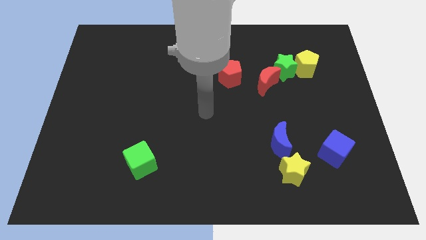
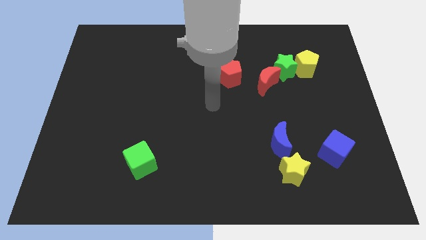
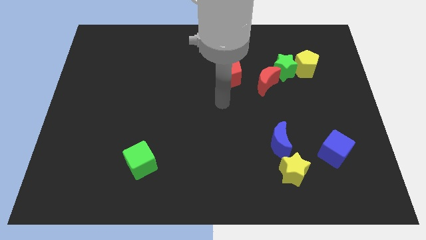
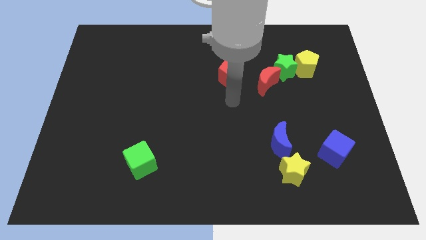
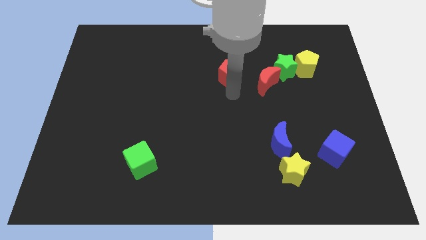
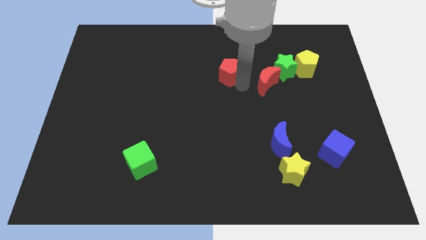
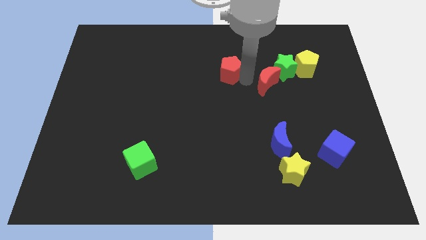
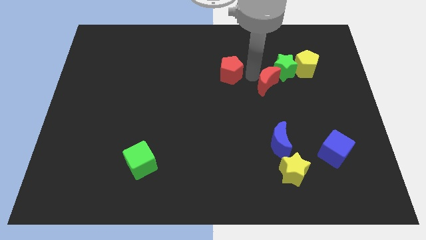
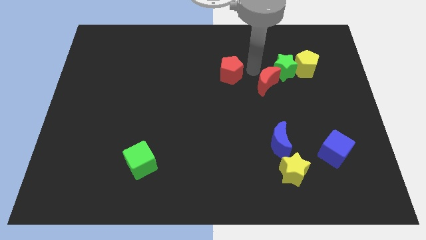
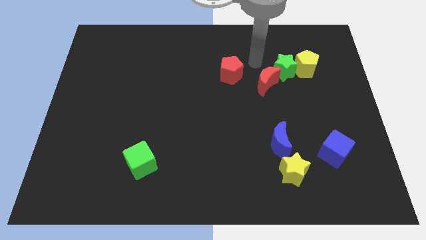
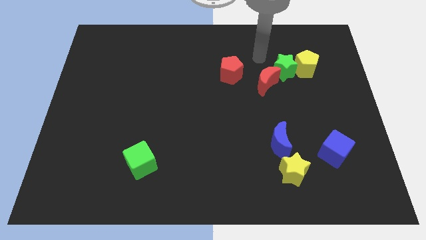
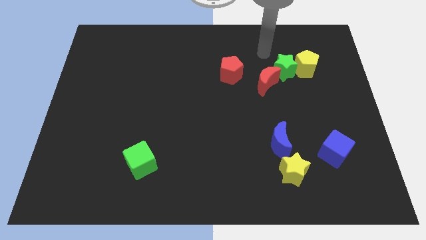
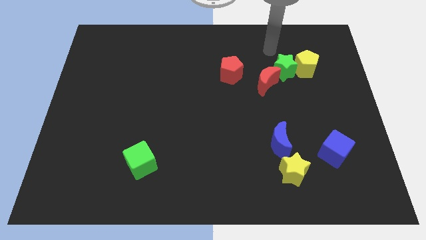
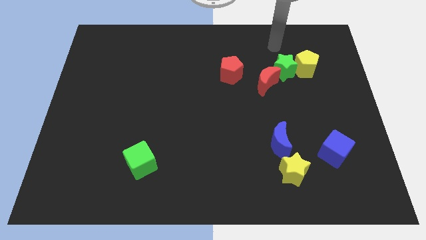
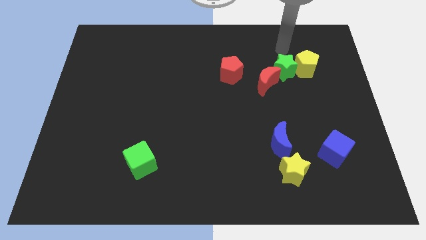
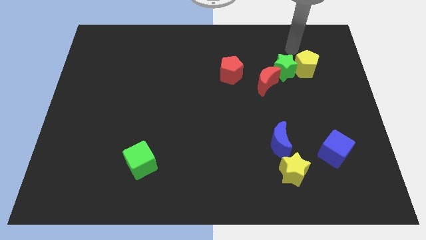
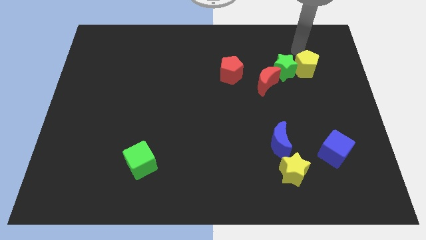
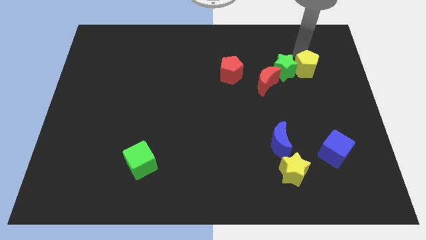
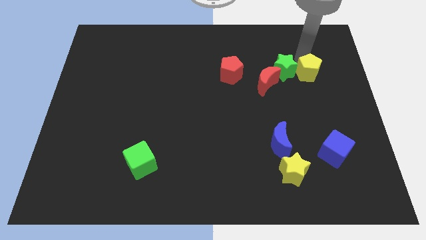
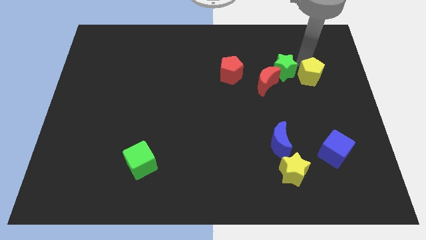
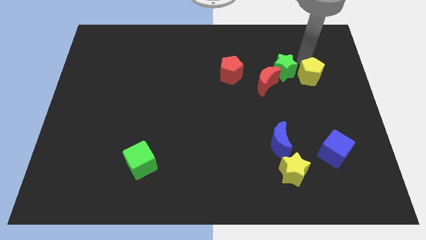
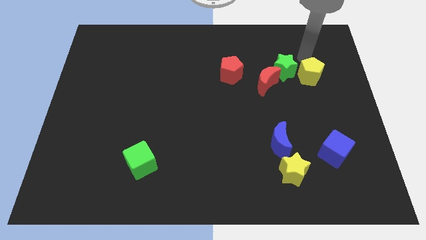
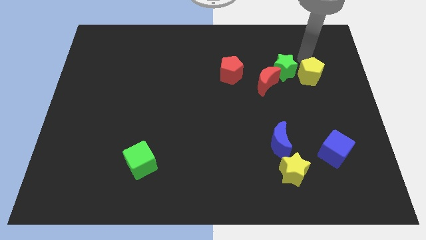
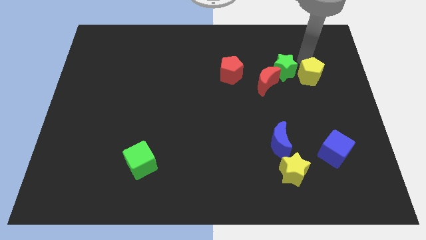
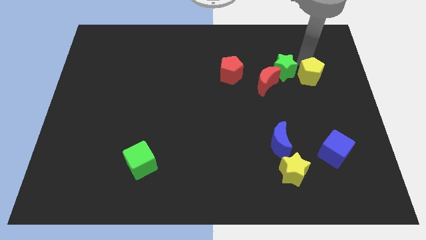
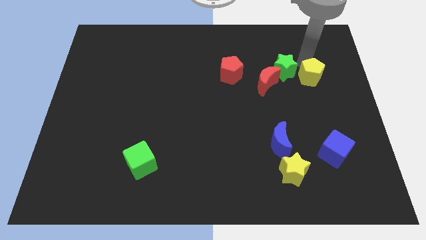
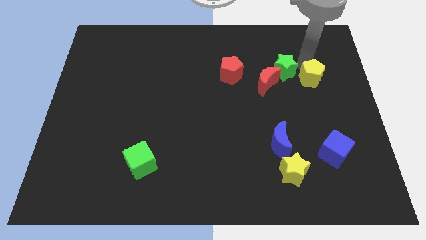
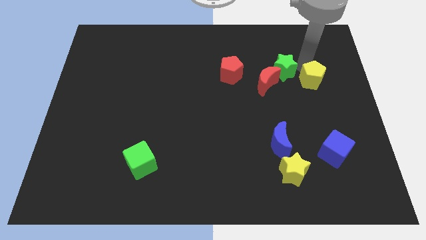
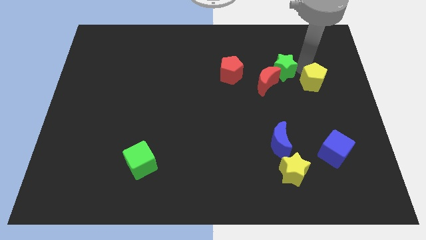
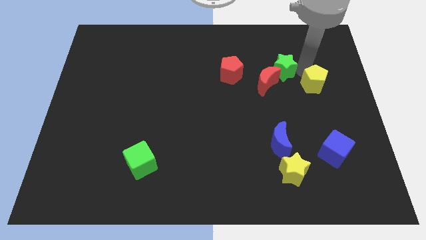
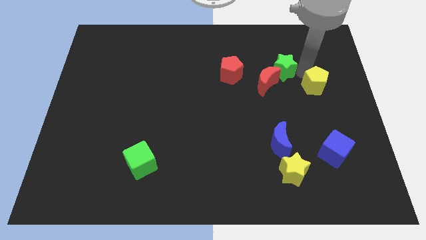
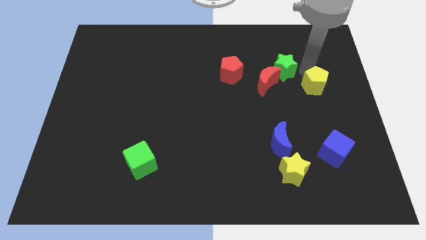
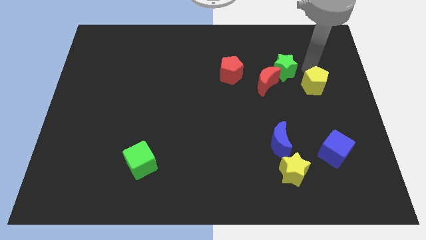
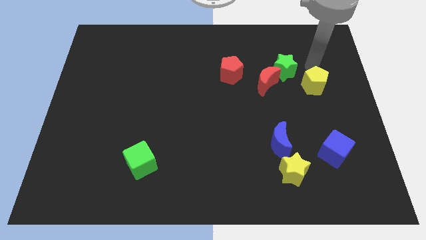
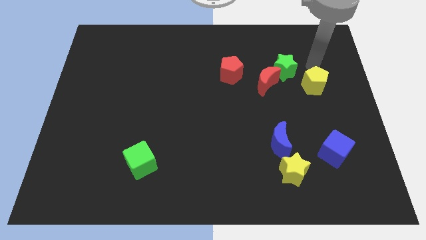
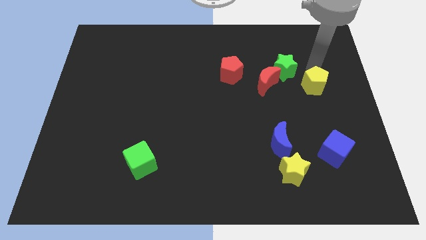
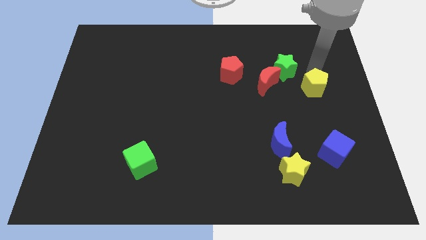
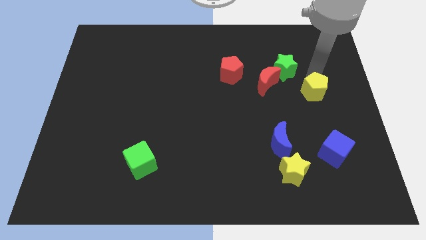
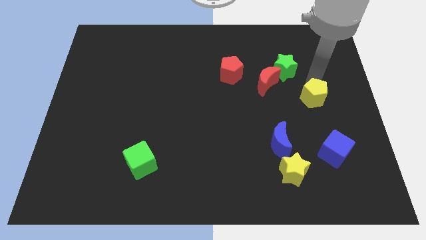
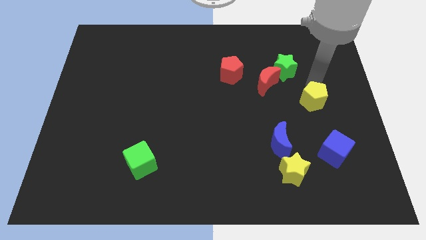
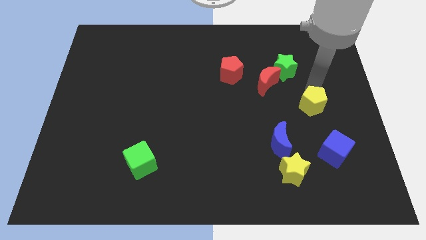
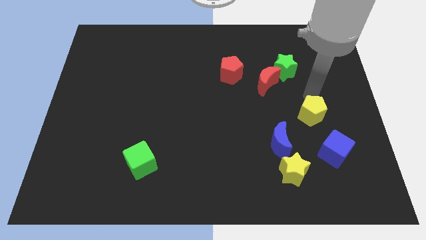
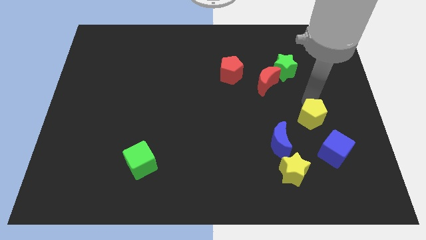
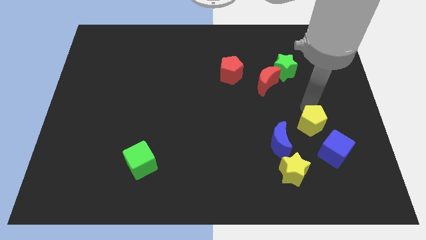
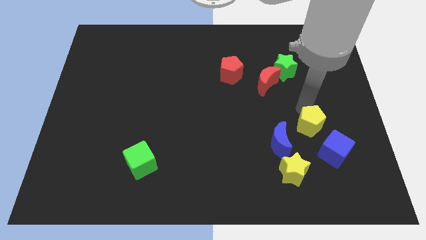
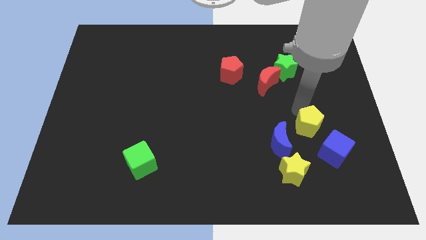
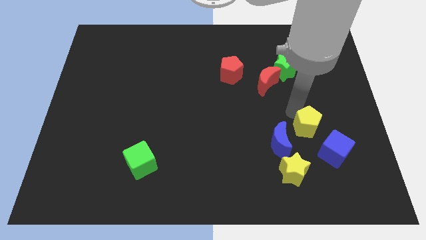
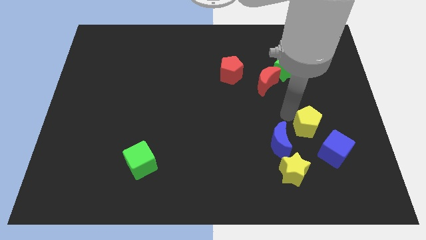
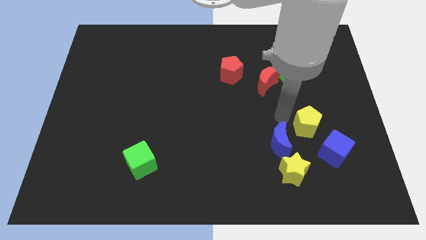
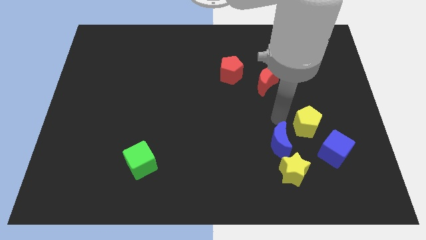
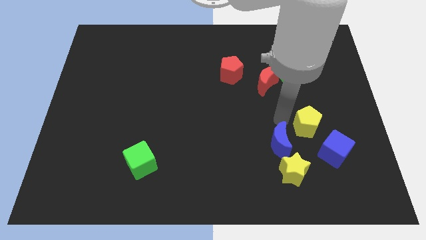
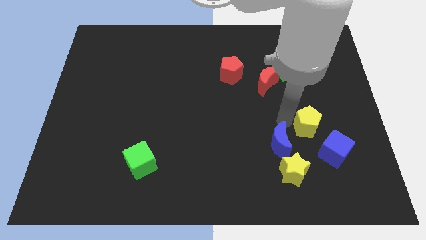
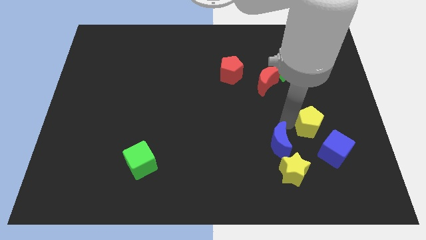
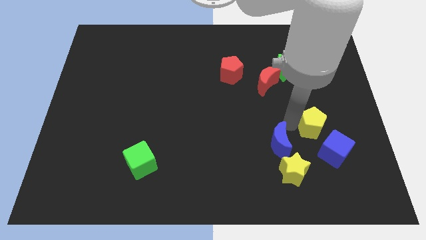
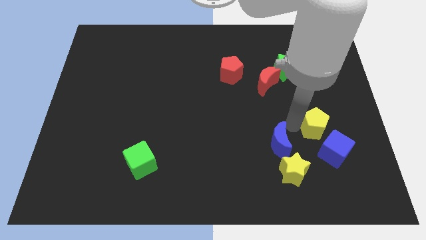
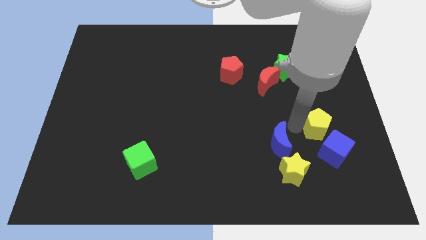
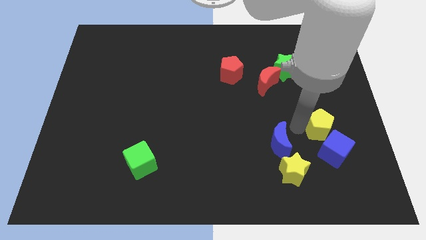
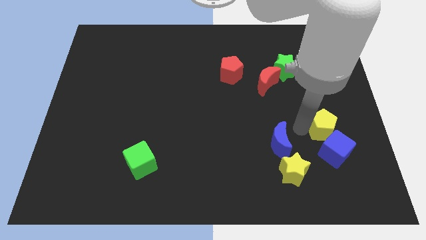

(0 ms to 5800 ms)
put the yellow pentagon towards the blue cube
